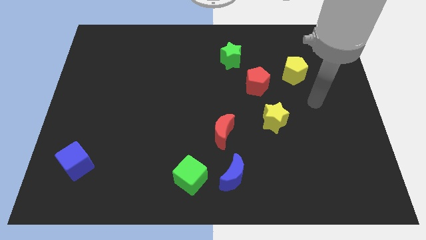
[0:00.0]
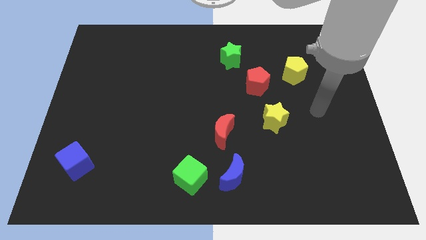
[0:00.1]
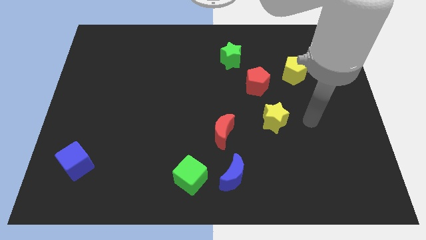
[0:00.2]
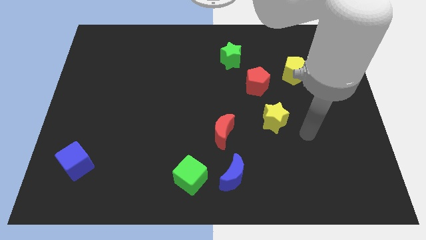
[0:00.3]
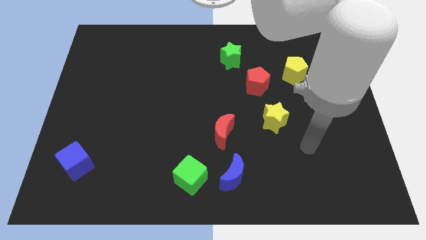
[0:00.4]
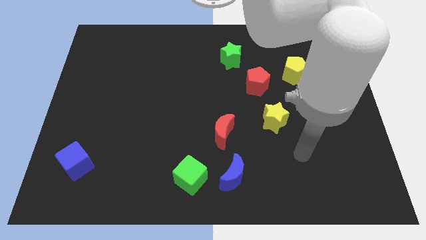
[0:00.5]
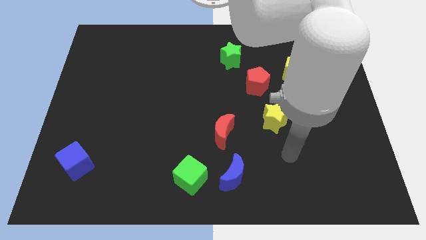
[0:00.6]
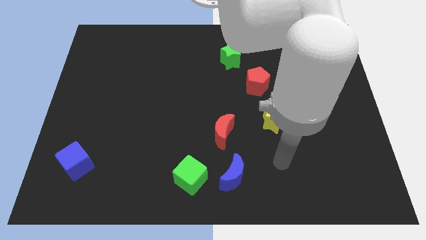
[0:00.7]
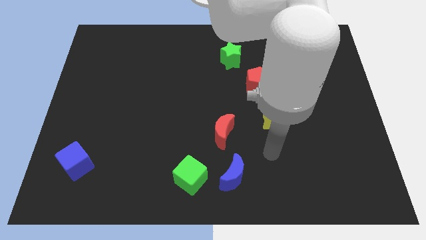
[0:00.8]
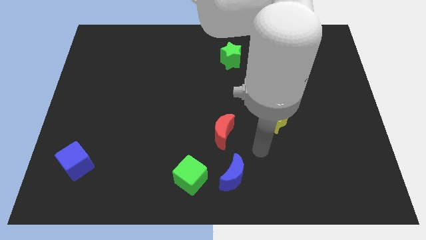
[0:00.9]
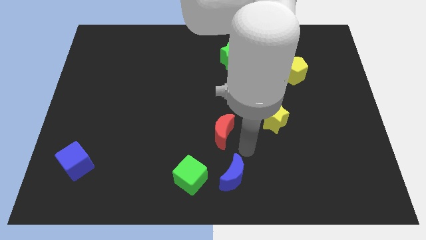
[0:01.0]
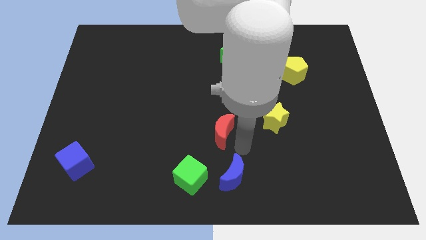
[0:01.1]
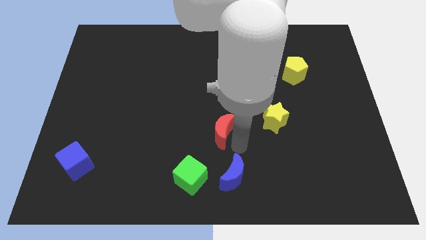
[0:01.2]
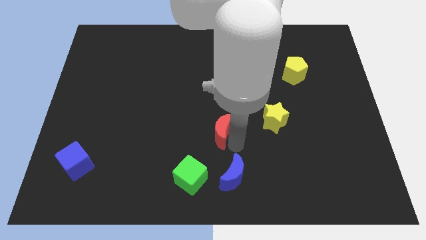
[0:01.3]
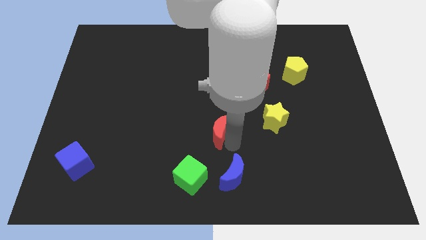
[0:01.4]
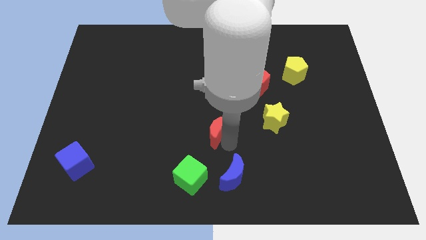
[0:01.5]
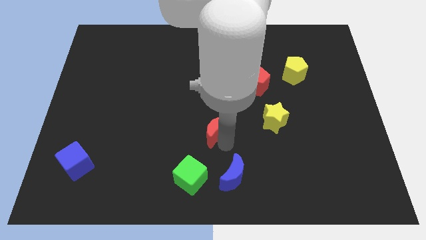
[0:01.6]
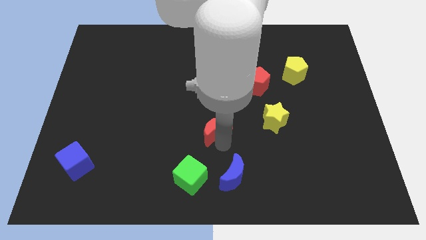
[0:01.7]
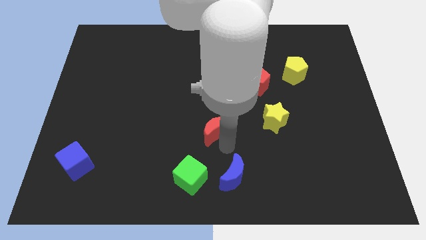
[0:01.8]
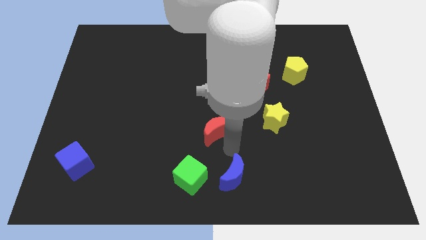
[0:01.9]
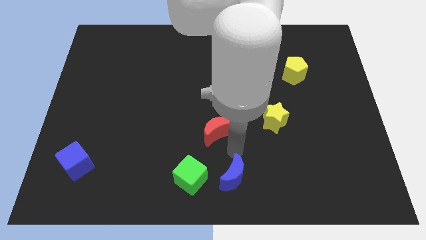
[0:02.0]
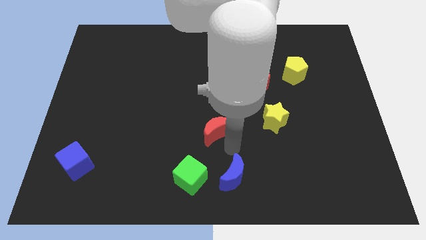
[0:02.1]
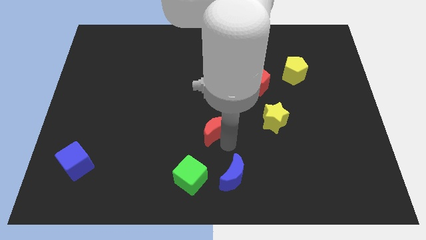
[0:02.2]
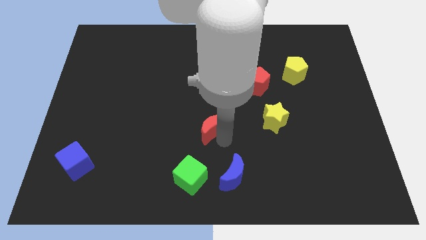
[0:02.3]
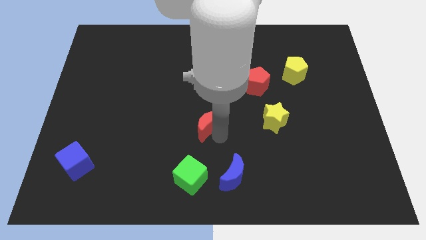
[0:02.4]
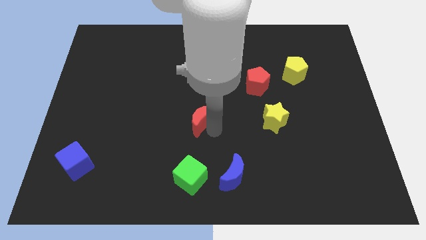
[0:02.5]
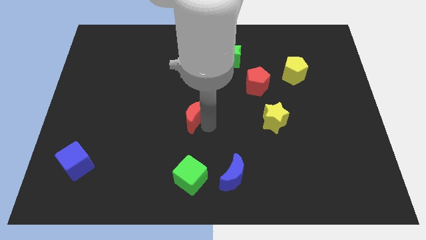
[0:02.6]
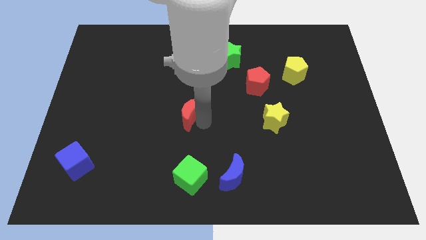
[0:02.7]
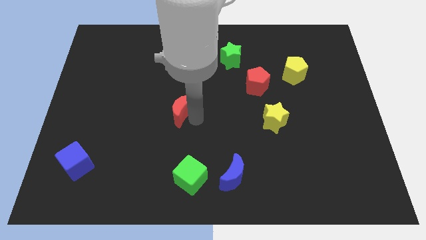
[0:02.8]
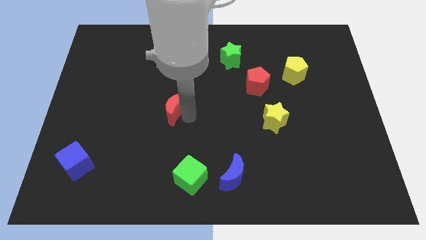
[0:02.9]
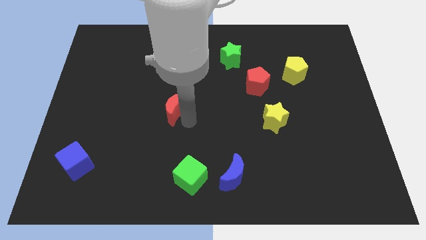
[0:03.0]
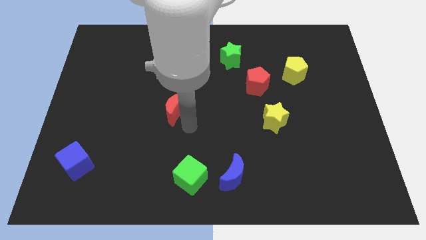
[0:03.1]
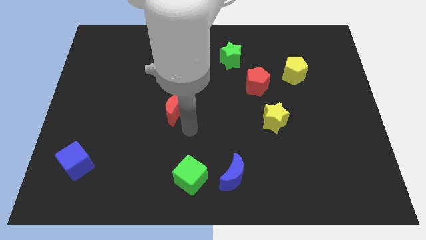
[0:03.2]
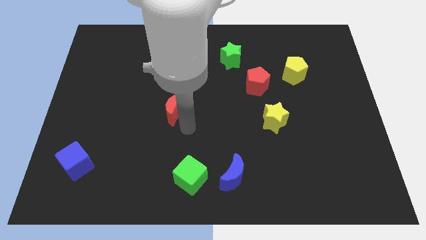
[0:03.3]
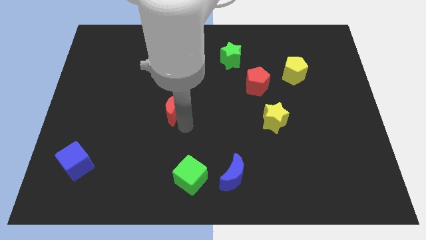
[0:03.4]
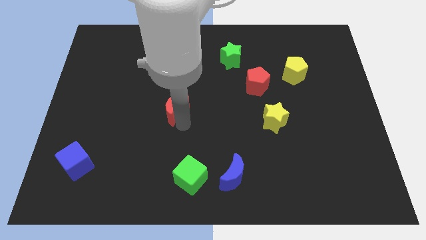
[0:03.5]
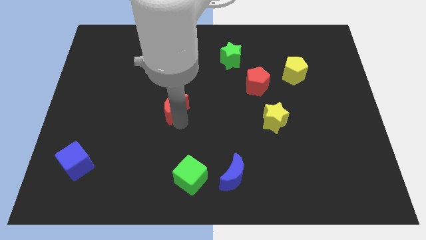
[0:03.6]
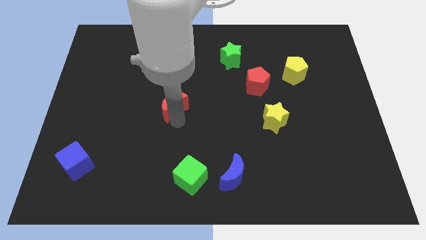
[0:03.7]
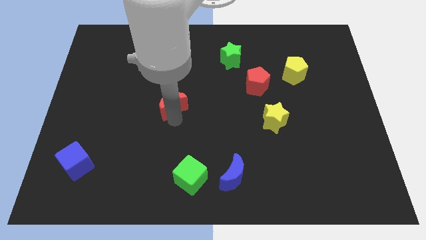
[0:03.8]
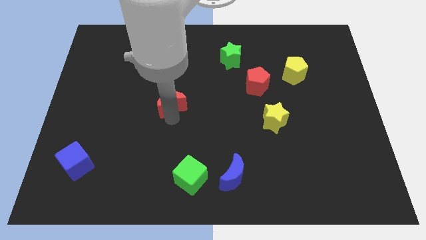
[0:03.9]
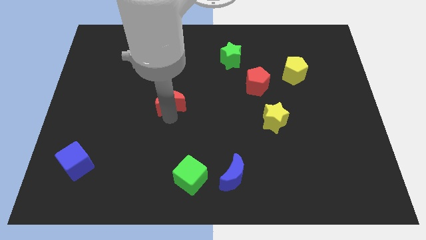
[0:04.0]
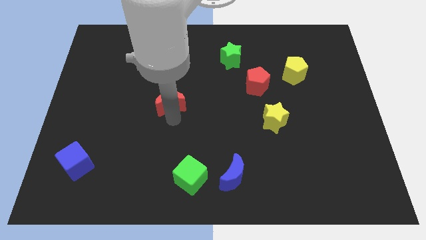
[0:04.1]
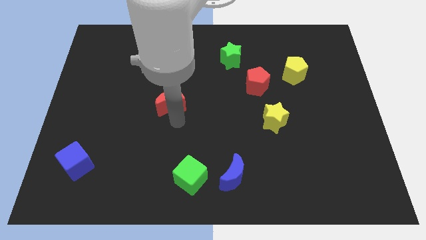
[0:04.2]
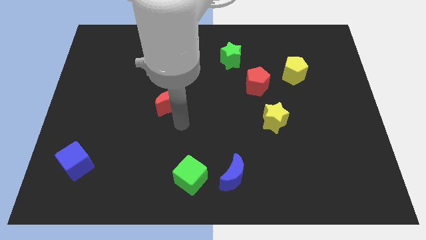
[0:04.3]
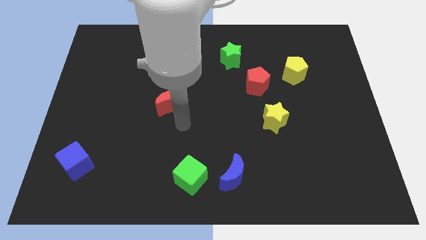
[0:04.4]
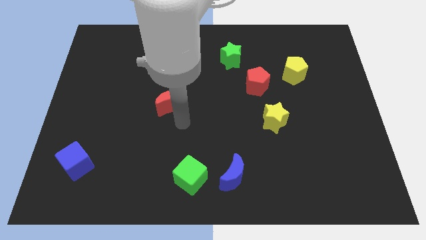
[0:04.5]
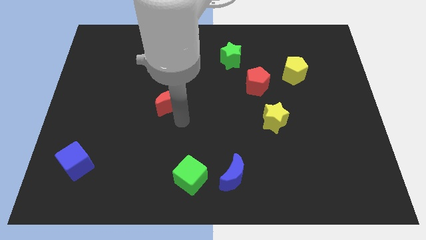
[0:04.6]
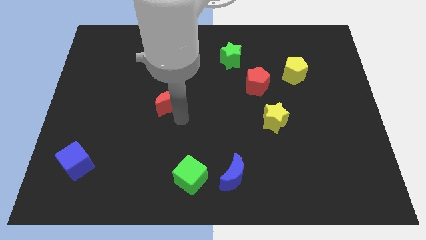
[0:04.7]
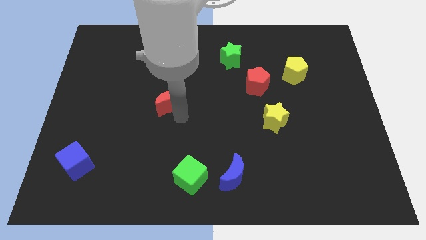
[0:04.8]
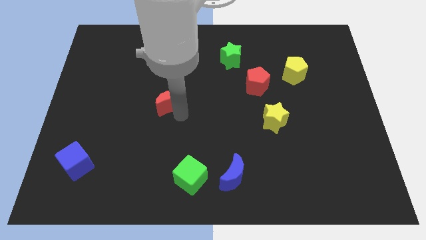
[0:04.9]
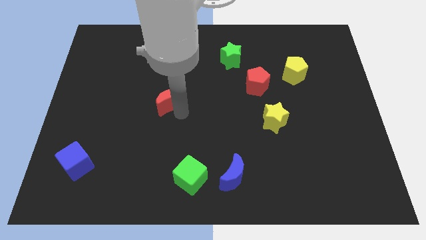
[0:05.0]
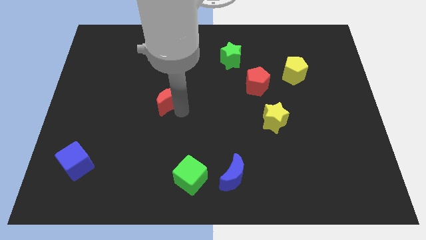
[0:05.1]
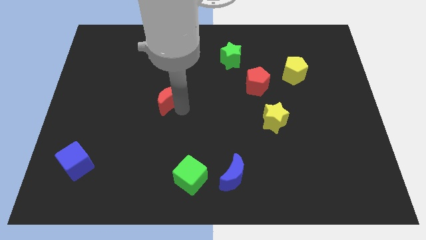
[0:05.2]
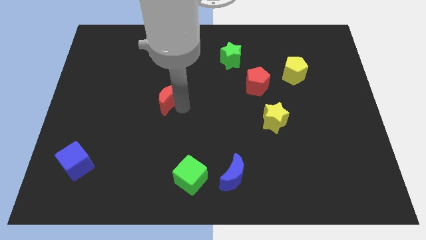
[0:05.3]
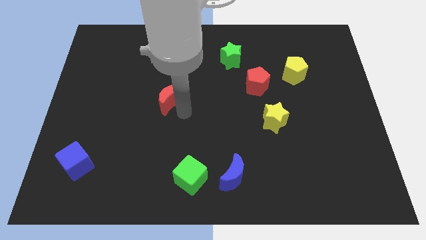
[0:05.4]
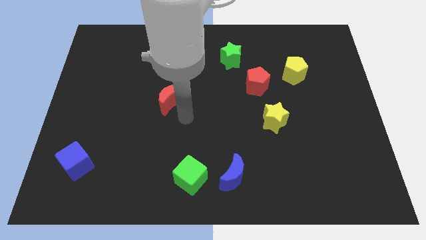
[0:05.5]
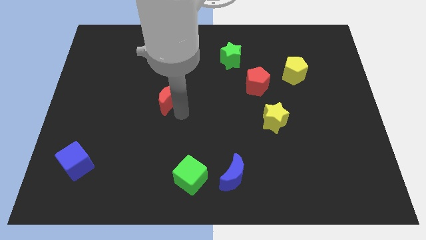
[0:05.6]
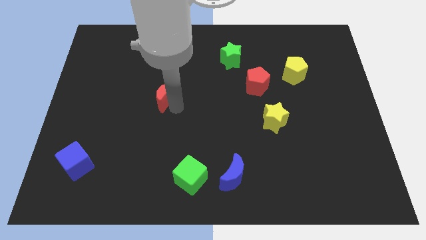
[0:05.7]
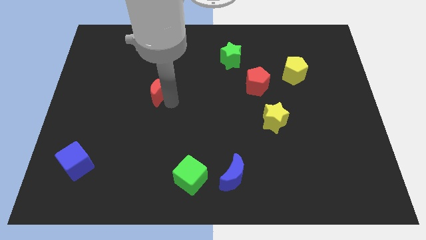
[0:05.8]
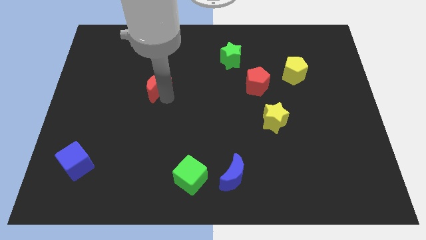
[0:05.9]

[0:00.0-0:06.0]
slide the red moon up and then left

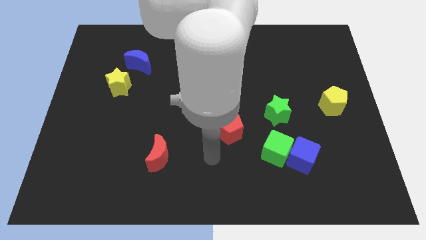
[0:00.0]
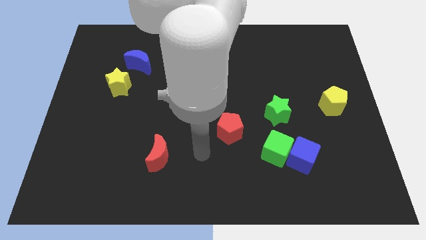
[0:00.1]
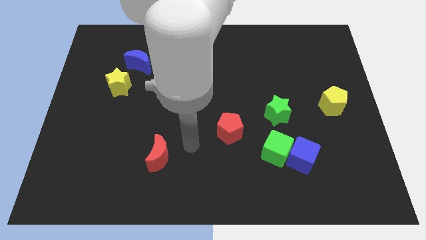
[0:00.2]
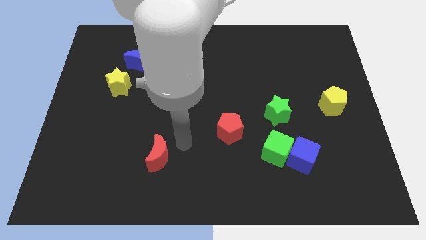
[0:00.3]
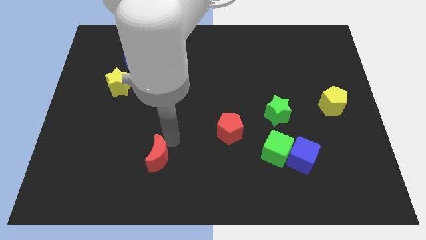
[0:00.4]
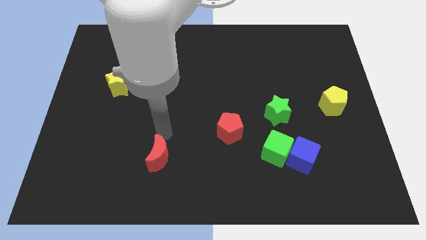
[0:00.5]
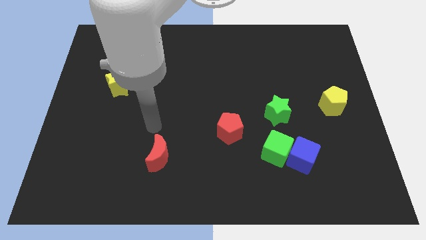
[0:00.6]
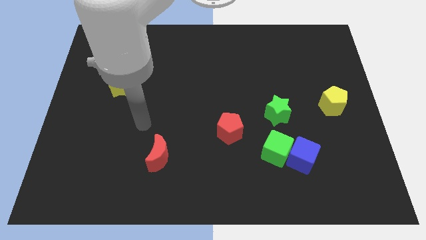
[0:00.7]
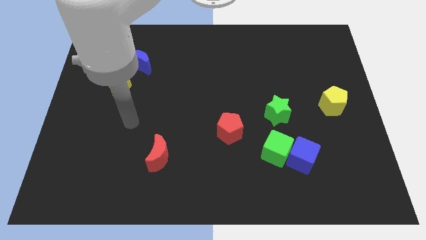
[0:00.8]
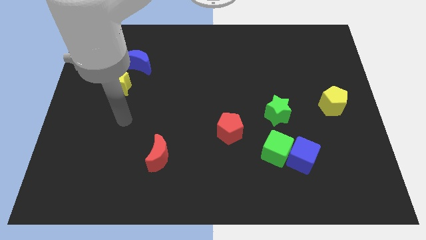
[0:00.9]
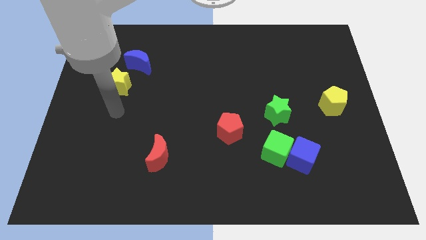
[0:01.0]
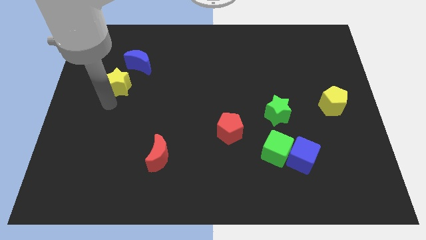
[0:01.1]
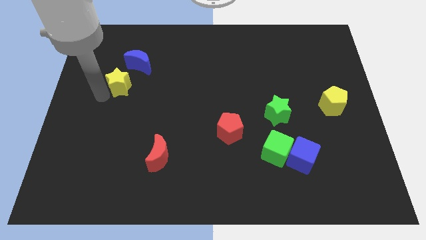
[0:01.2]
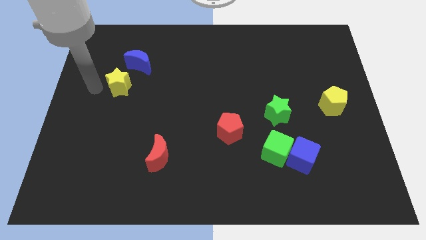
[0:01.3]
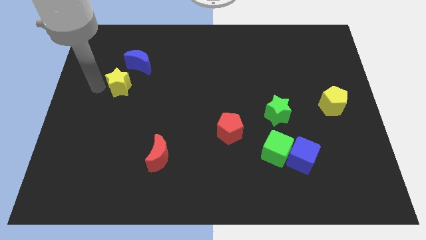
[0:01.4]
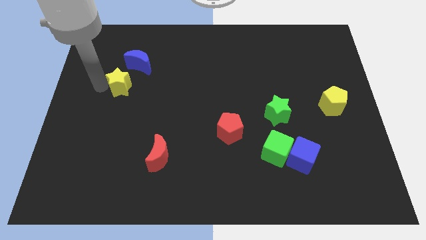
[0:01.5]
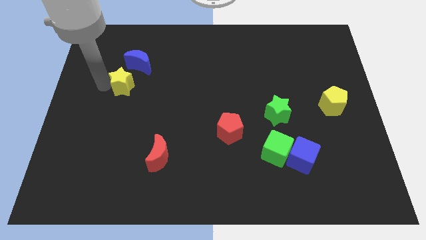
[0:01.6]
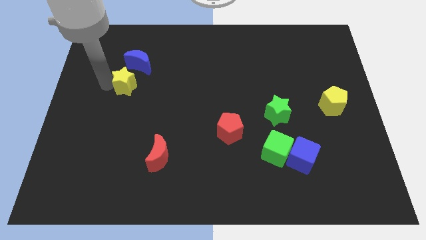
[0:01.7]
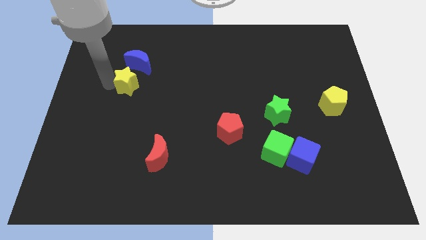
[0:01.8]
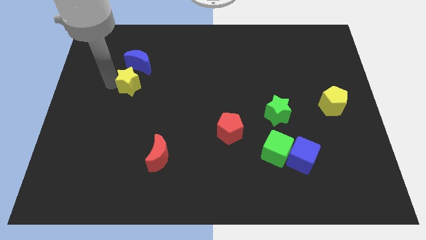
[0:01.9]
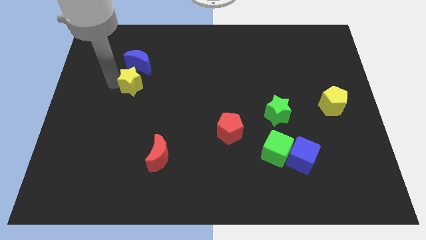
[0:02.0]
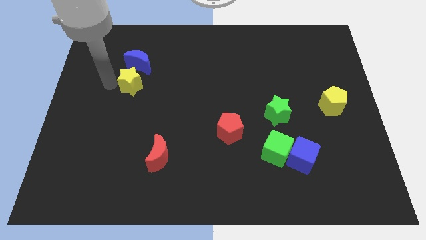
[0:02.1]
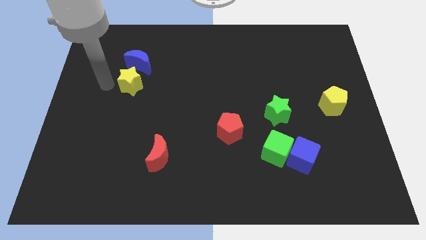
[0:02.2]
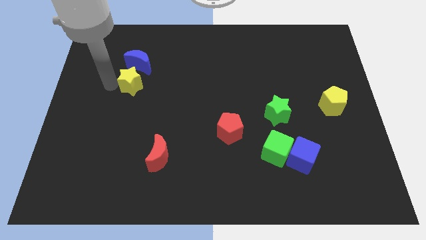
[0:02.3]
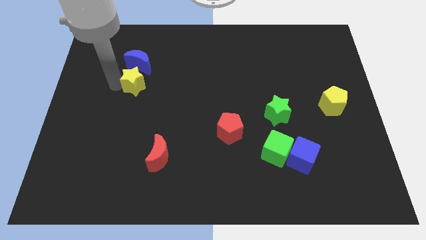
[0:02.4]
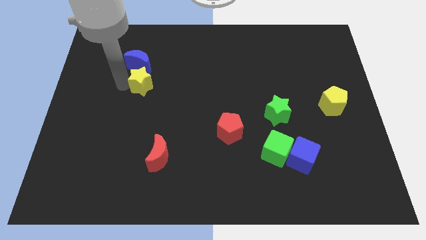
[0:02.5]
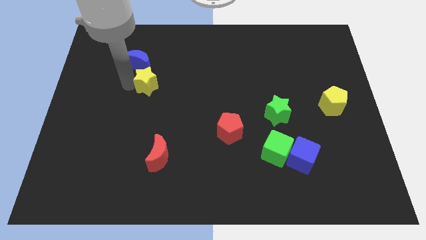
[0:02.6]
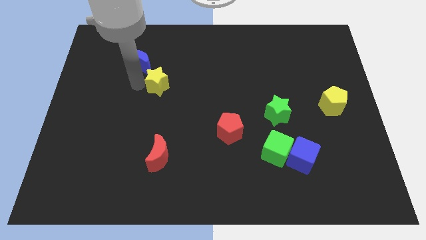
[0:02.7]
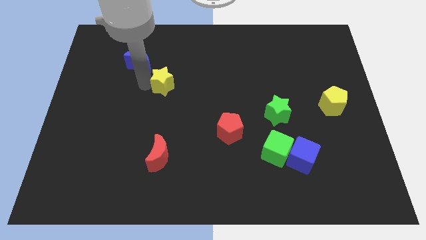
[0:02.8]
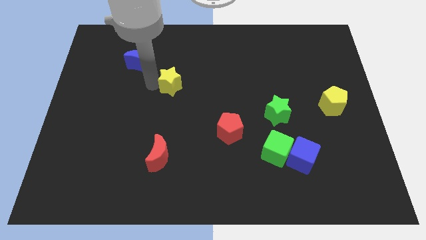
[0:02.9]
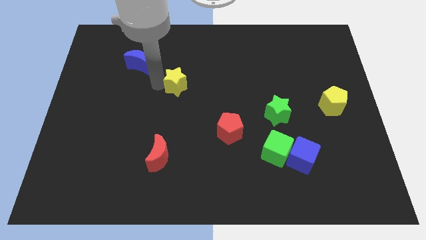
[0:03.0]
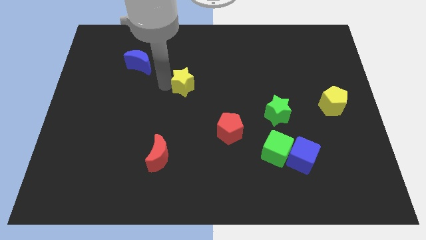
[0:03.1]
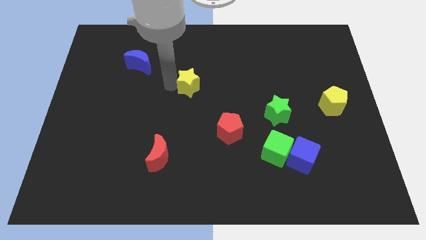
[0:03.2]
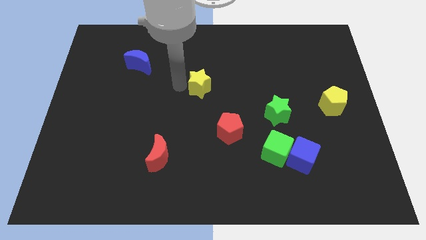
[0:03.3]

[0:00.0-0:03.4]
slide the yellow star to the right
